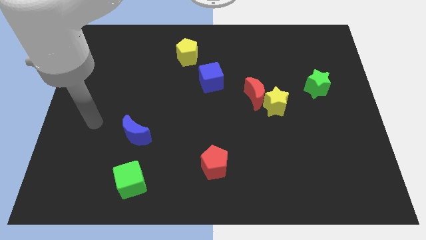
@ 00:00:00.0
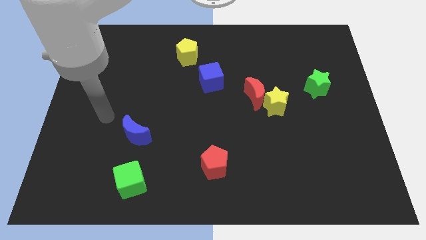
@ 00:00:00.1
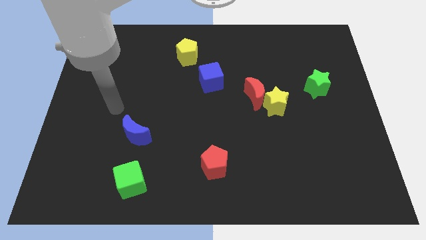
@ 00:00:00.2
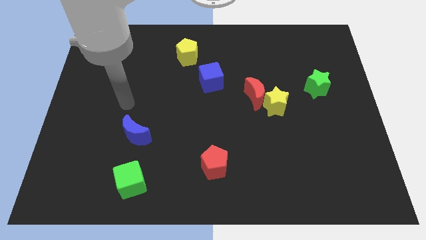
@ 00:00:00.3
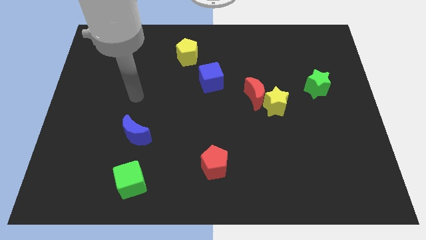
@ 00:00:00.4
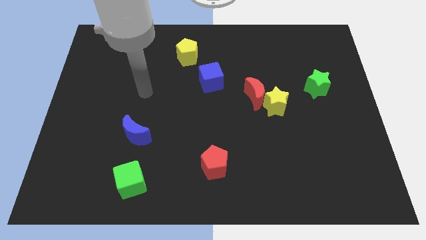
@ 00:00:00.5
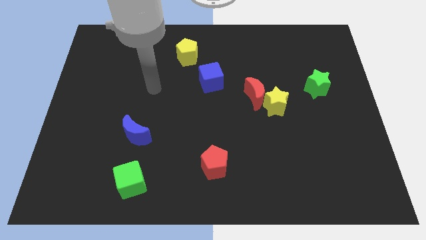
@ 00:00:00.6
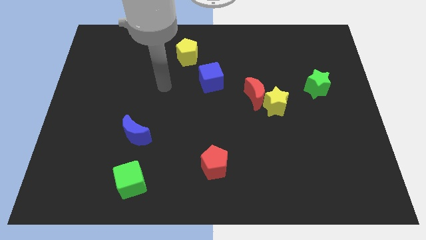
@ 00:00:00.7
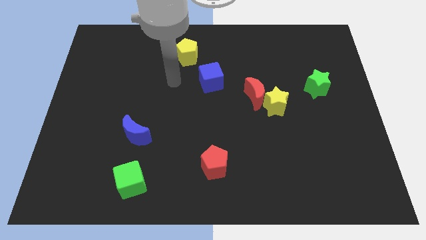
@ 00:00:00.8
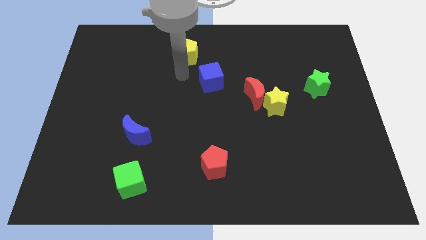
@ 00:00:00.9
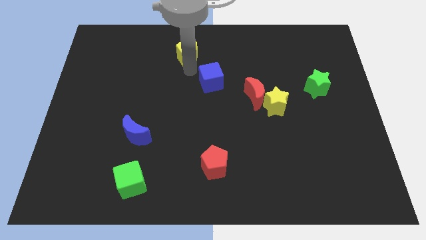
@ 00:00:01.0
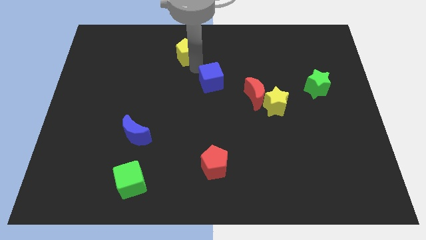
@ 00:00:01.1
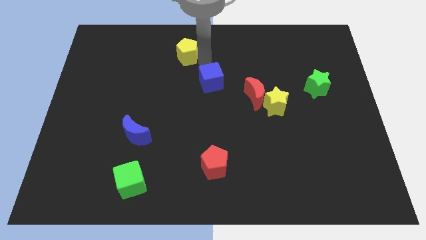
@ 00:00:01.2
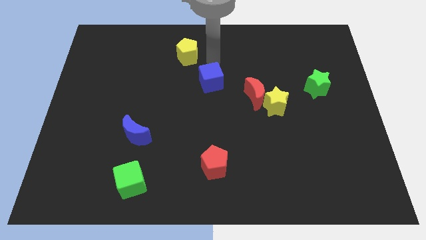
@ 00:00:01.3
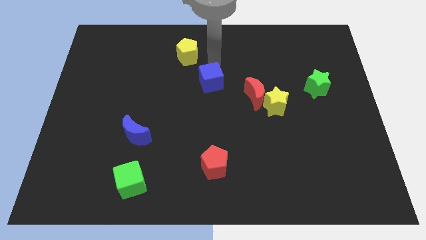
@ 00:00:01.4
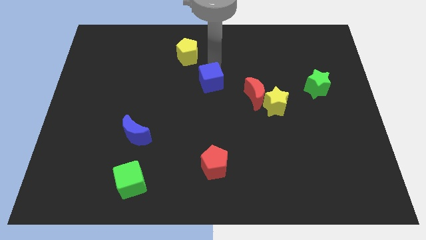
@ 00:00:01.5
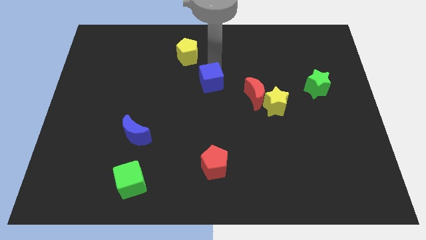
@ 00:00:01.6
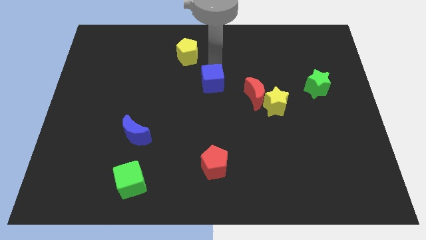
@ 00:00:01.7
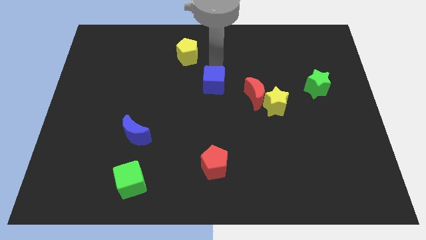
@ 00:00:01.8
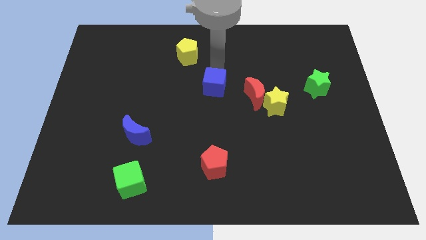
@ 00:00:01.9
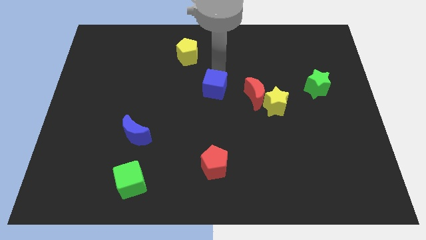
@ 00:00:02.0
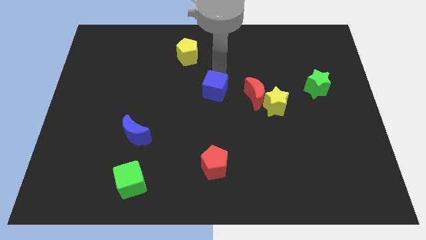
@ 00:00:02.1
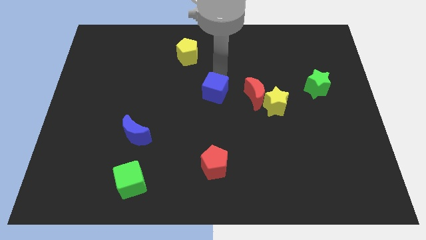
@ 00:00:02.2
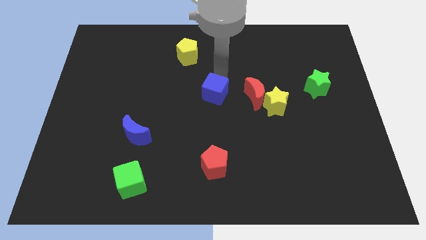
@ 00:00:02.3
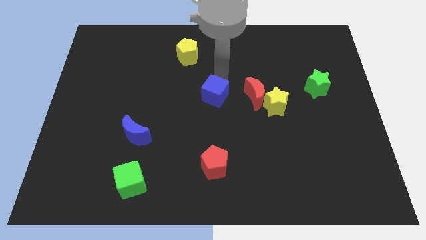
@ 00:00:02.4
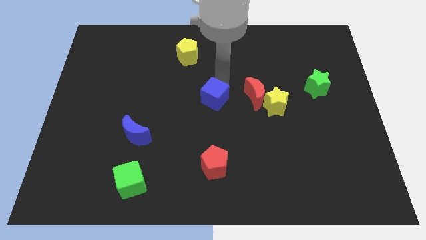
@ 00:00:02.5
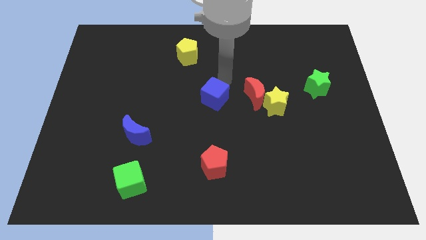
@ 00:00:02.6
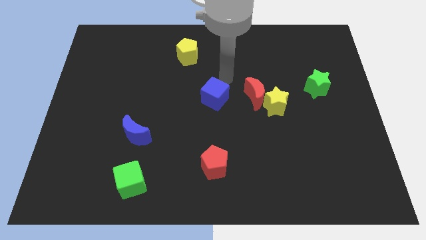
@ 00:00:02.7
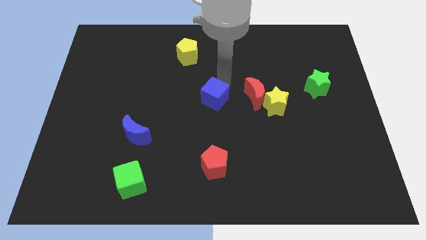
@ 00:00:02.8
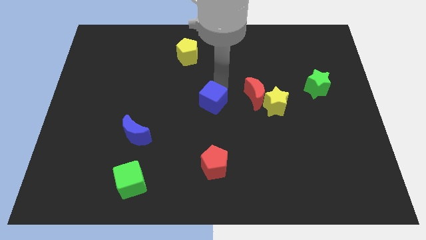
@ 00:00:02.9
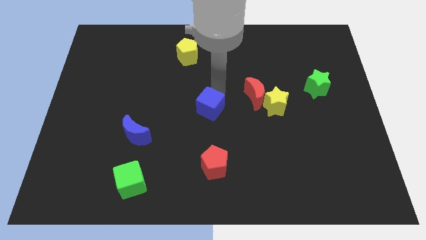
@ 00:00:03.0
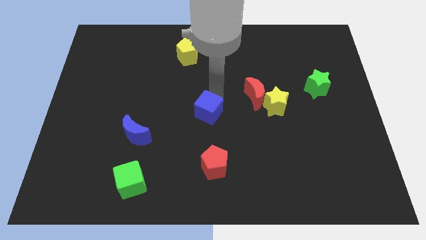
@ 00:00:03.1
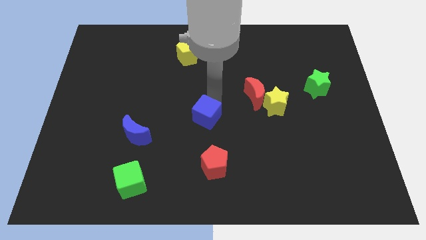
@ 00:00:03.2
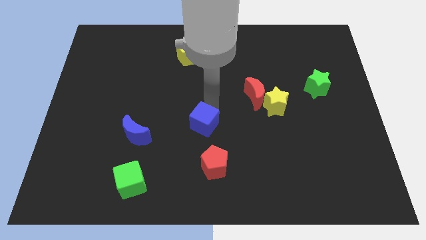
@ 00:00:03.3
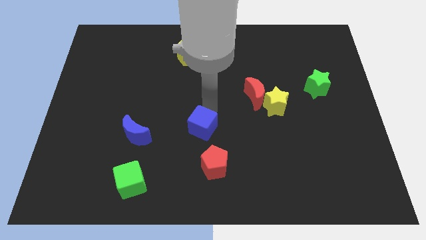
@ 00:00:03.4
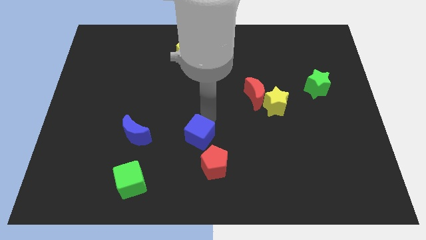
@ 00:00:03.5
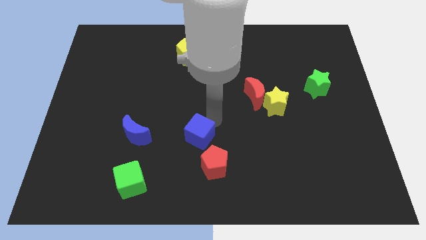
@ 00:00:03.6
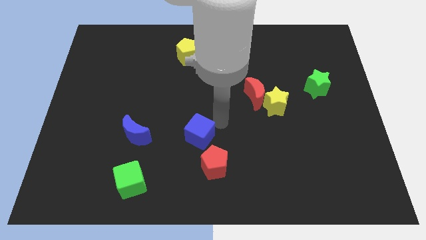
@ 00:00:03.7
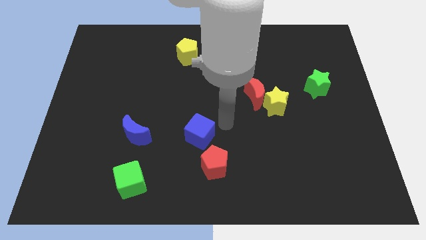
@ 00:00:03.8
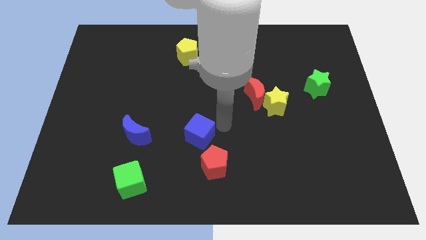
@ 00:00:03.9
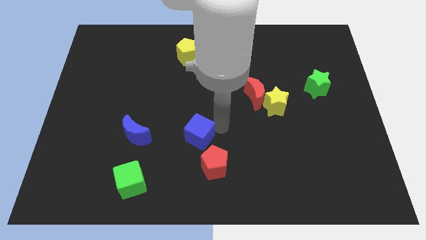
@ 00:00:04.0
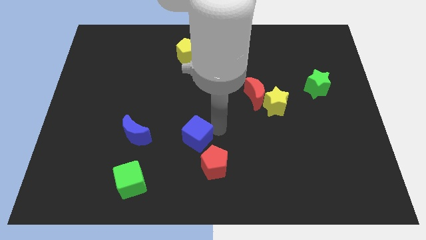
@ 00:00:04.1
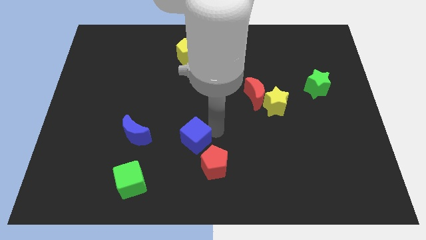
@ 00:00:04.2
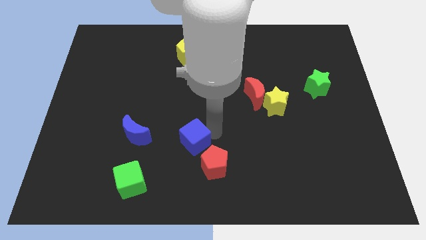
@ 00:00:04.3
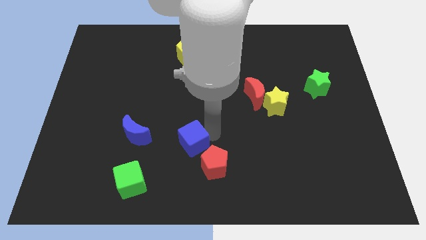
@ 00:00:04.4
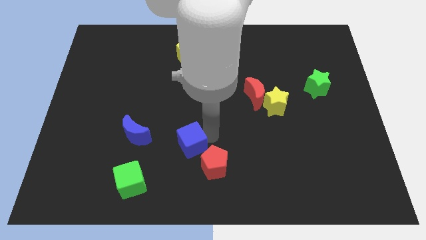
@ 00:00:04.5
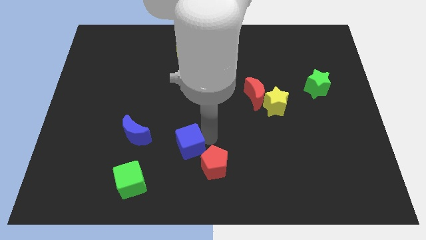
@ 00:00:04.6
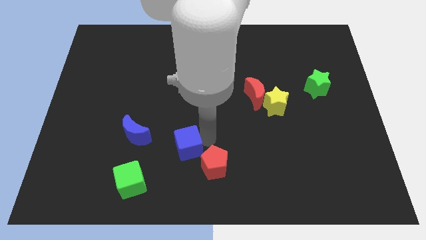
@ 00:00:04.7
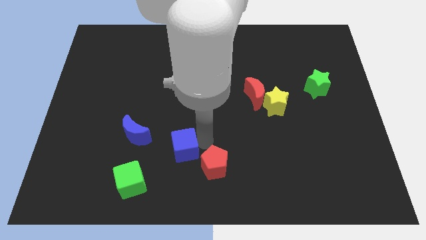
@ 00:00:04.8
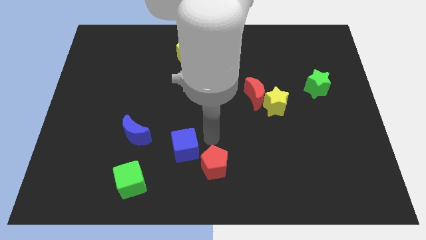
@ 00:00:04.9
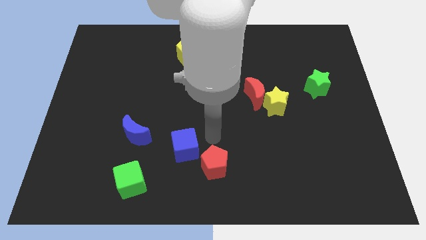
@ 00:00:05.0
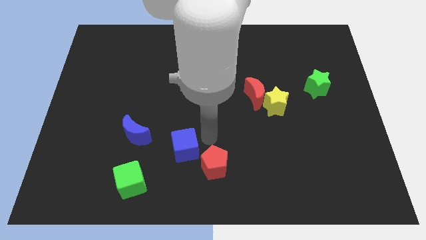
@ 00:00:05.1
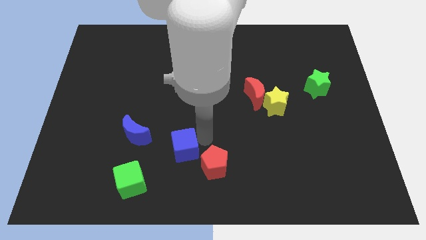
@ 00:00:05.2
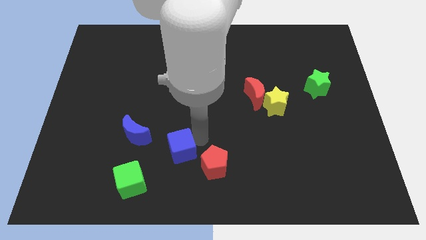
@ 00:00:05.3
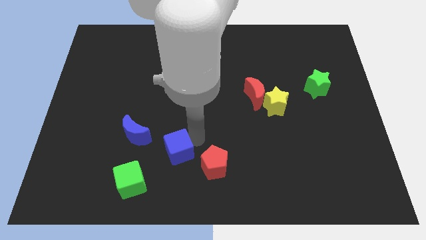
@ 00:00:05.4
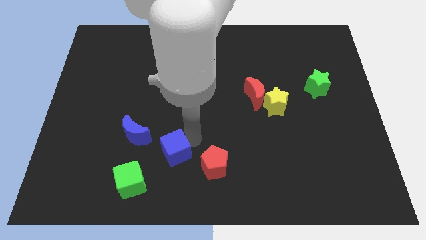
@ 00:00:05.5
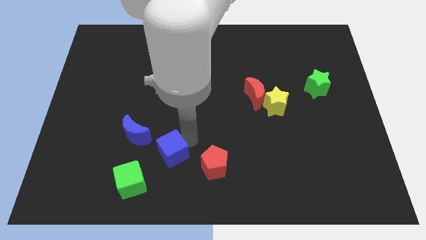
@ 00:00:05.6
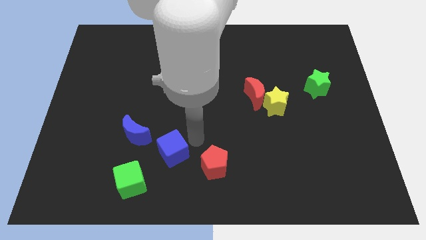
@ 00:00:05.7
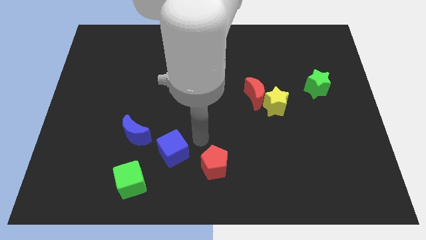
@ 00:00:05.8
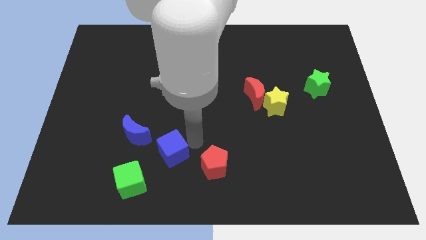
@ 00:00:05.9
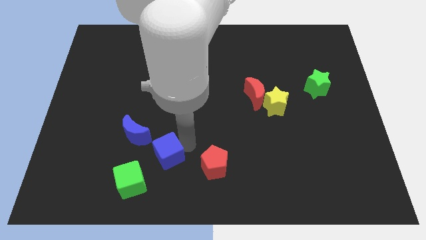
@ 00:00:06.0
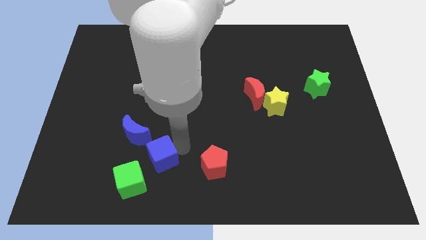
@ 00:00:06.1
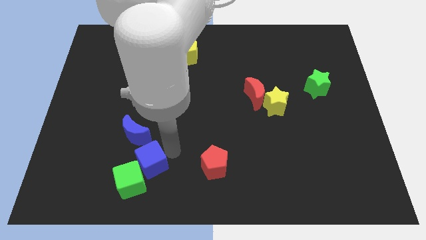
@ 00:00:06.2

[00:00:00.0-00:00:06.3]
slide the blue cube towards the green cube

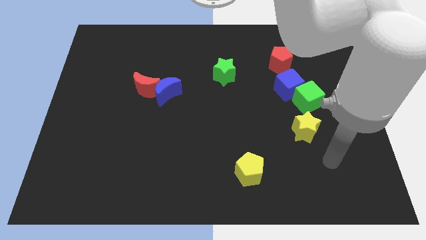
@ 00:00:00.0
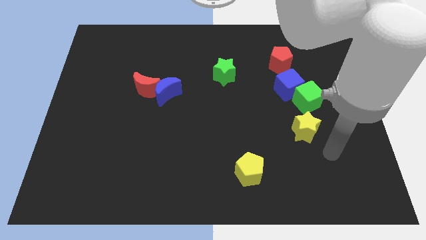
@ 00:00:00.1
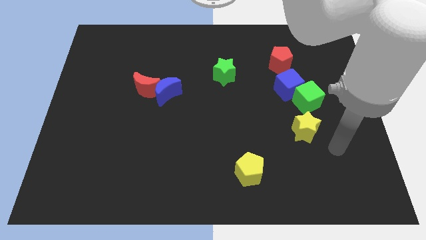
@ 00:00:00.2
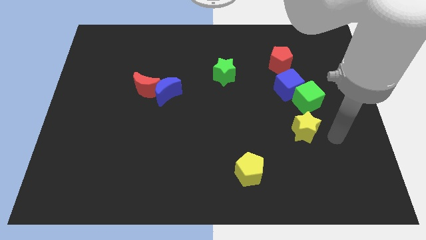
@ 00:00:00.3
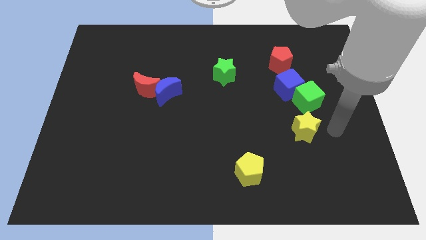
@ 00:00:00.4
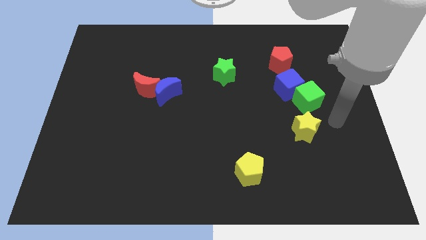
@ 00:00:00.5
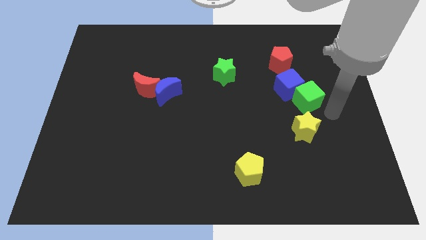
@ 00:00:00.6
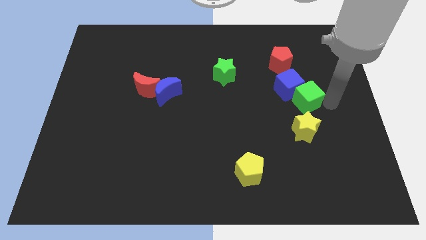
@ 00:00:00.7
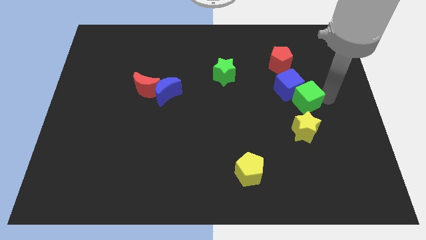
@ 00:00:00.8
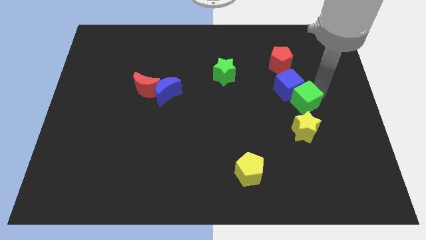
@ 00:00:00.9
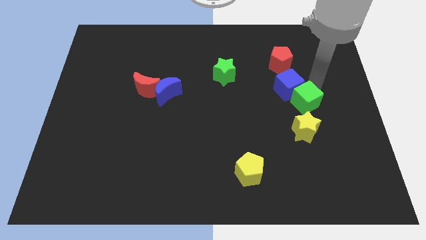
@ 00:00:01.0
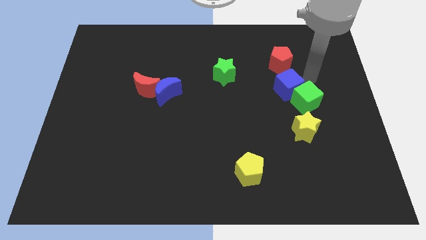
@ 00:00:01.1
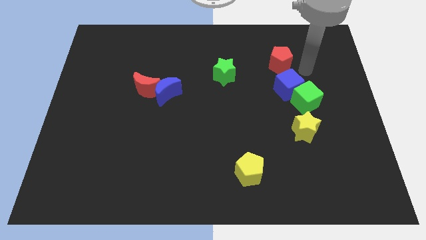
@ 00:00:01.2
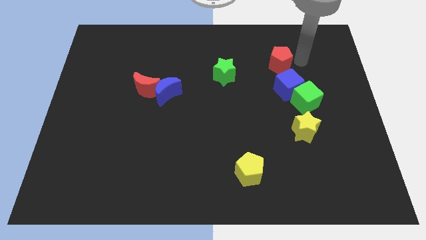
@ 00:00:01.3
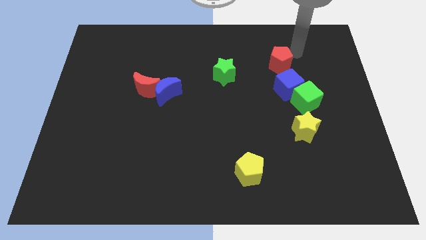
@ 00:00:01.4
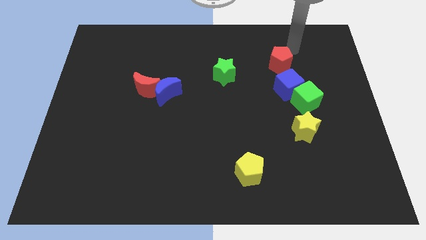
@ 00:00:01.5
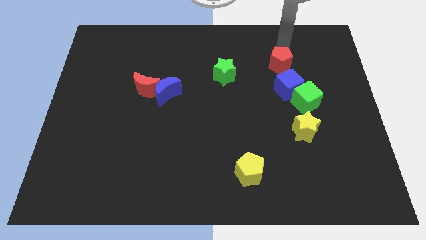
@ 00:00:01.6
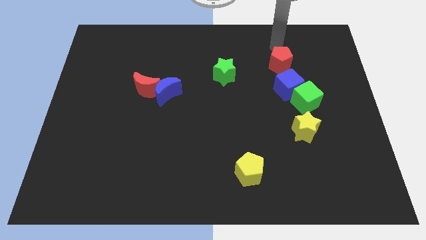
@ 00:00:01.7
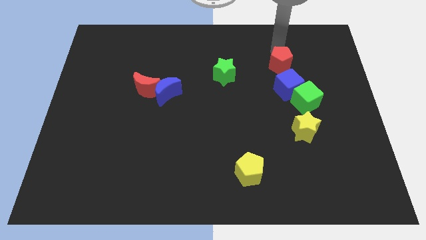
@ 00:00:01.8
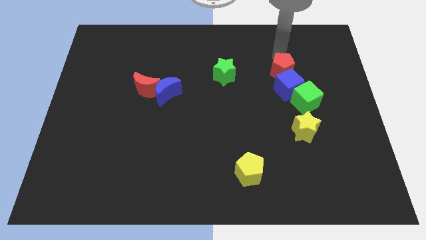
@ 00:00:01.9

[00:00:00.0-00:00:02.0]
slide the red pentagon towards the blue cube
